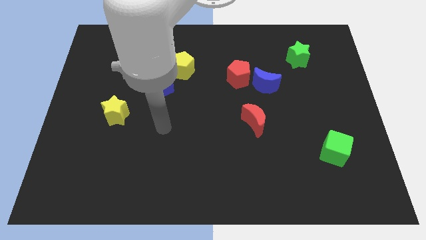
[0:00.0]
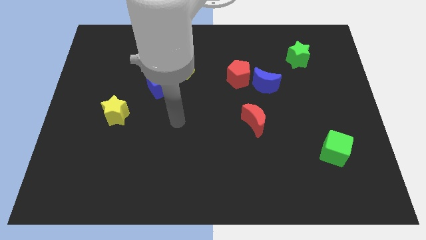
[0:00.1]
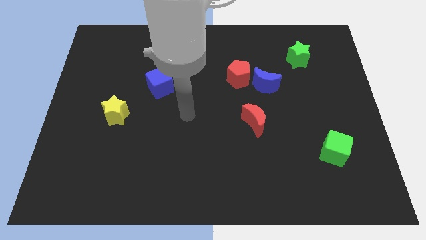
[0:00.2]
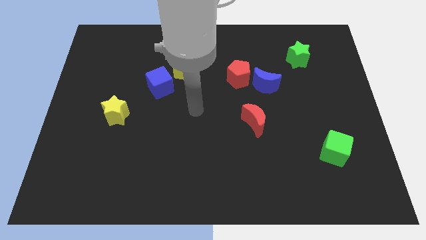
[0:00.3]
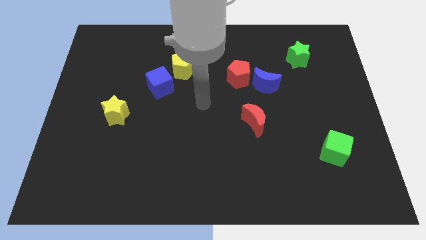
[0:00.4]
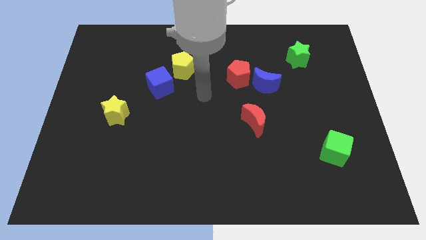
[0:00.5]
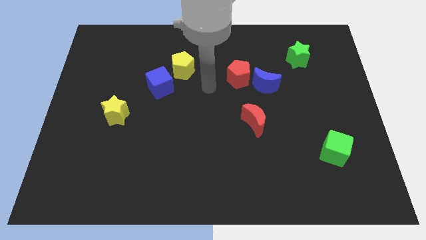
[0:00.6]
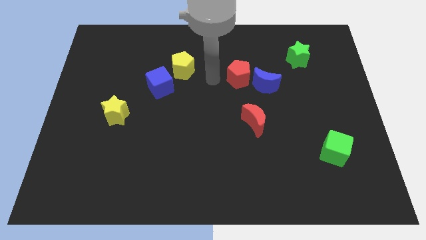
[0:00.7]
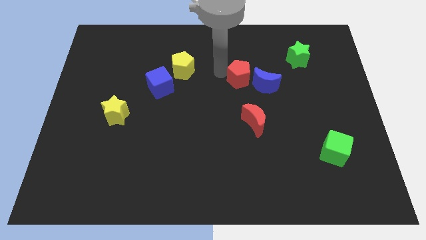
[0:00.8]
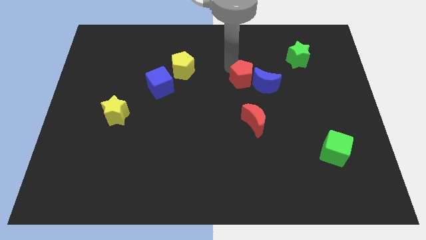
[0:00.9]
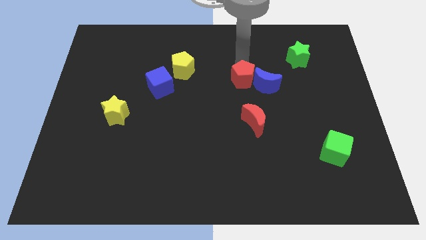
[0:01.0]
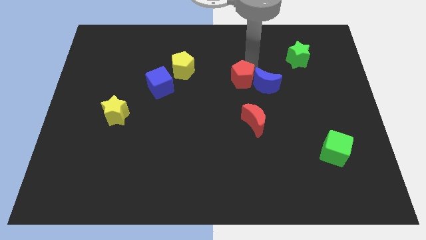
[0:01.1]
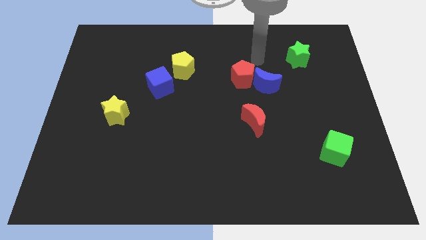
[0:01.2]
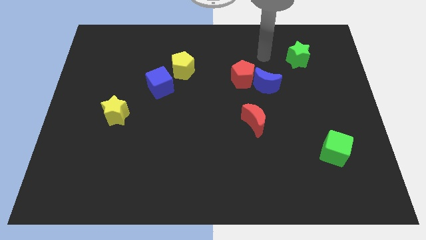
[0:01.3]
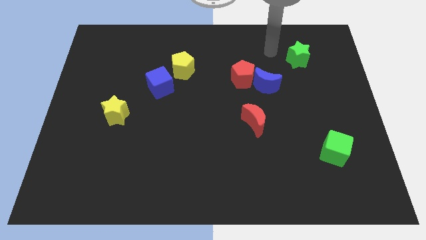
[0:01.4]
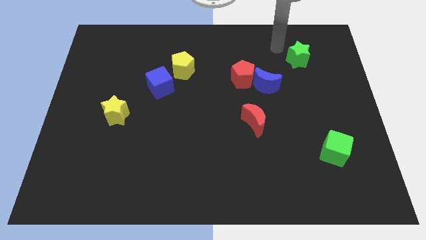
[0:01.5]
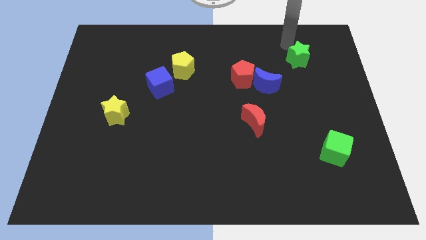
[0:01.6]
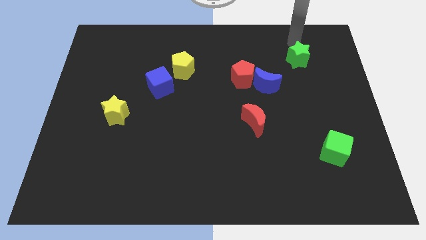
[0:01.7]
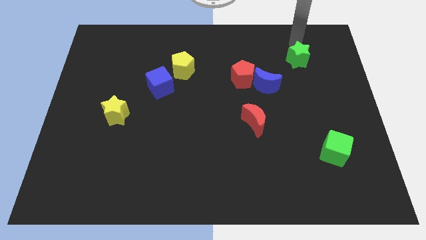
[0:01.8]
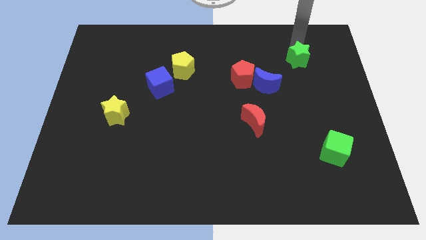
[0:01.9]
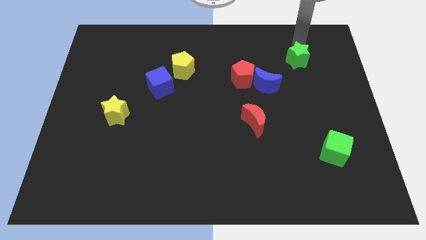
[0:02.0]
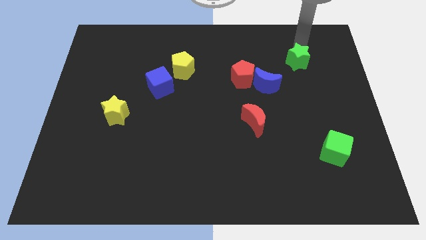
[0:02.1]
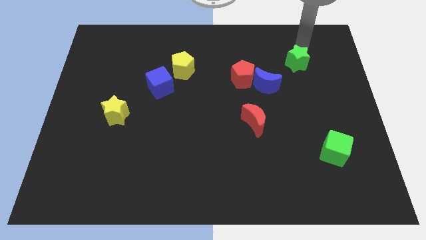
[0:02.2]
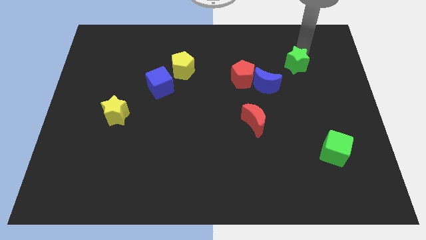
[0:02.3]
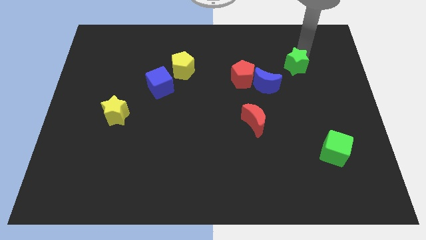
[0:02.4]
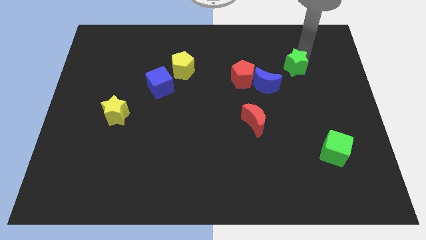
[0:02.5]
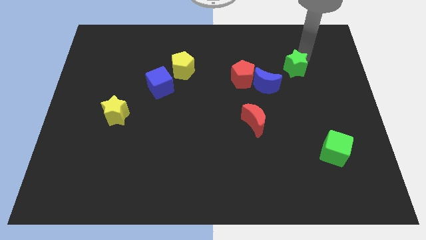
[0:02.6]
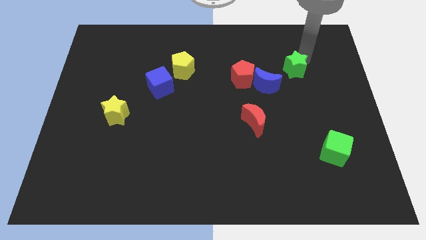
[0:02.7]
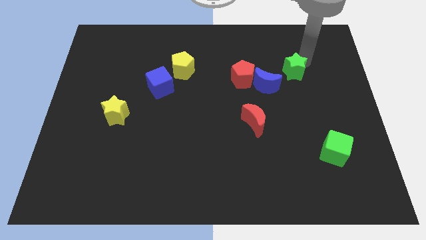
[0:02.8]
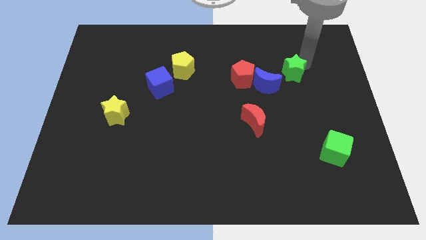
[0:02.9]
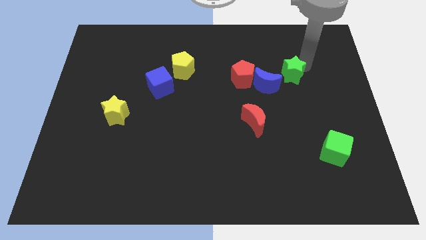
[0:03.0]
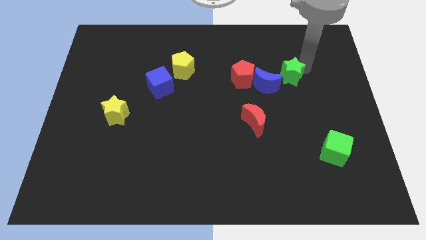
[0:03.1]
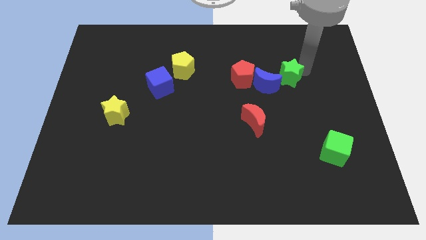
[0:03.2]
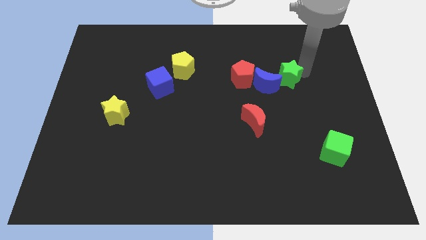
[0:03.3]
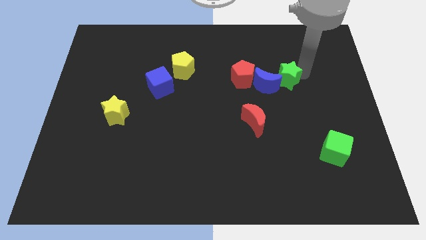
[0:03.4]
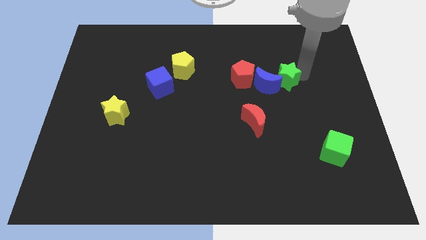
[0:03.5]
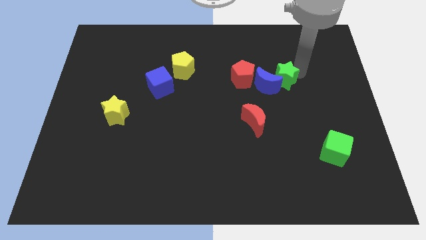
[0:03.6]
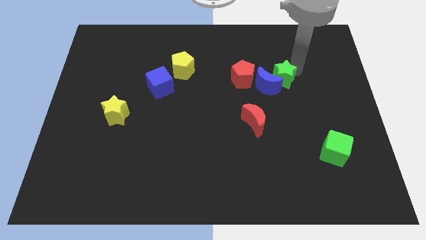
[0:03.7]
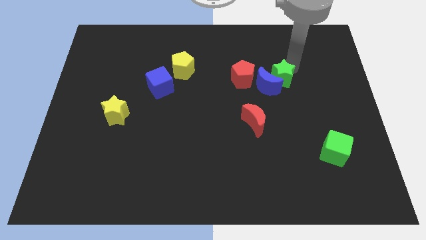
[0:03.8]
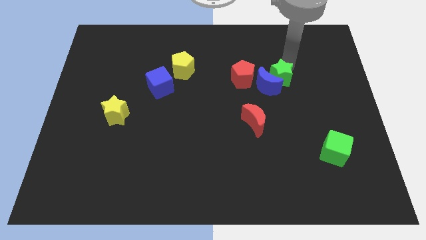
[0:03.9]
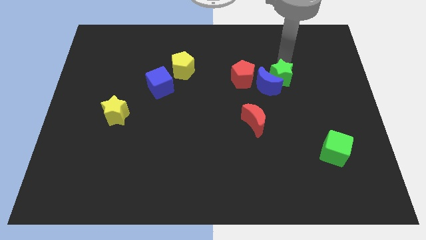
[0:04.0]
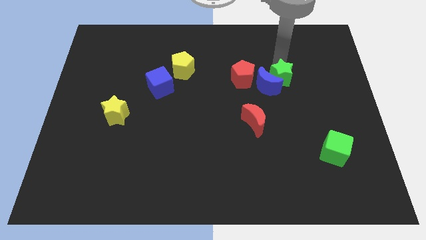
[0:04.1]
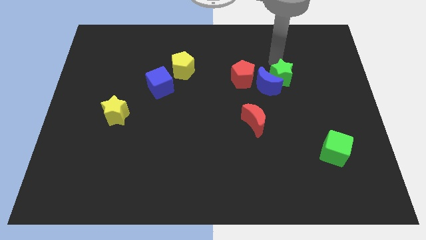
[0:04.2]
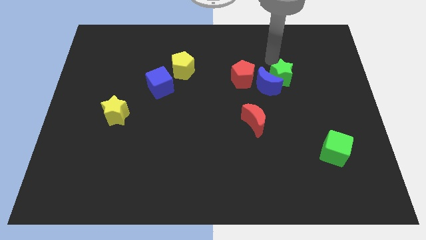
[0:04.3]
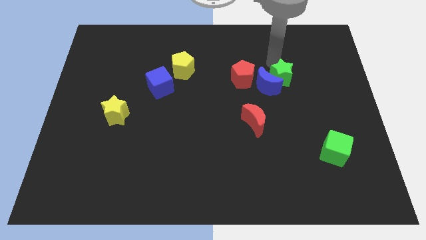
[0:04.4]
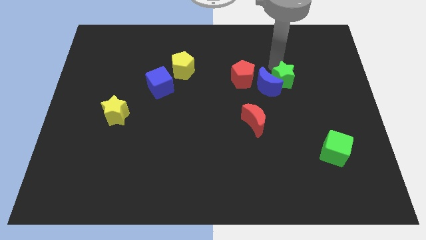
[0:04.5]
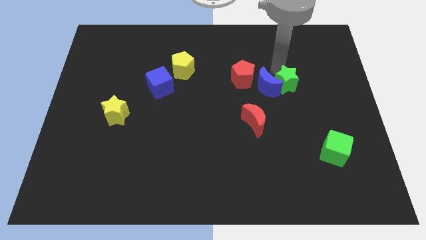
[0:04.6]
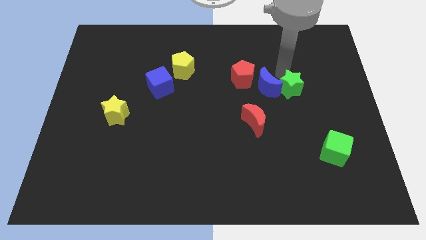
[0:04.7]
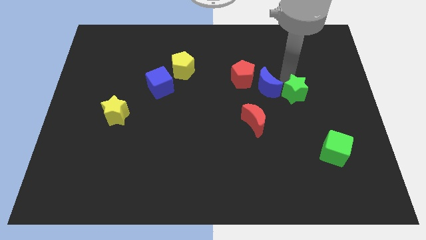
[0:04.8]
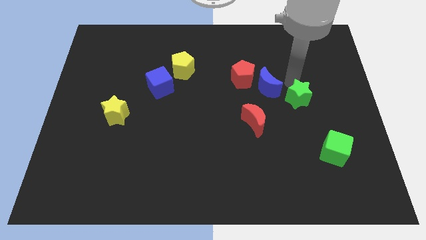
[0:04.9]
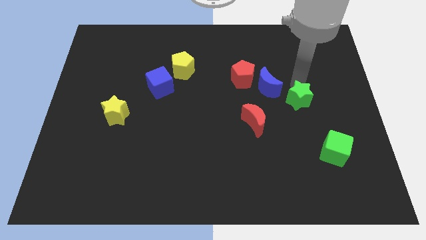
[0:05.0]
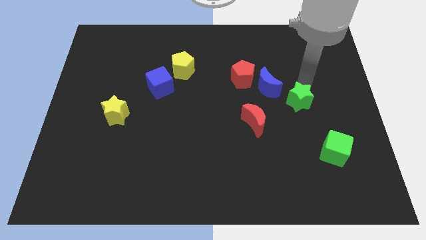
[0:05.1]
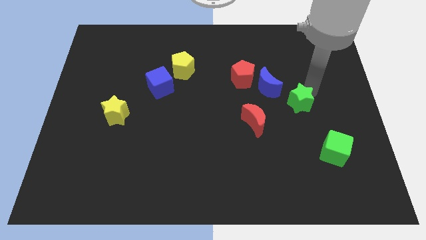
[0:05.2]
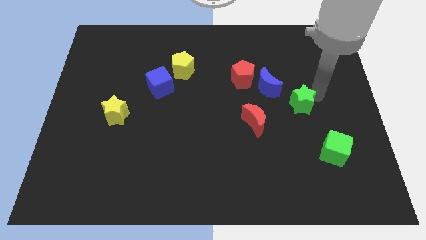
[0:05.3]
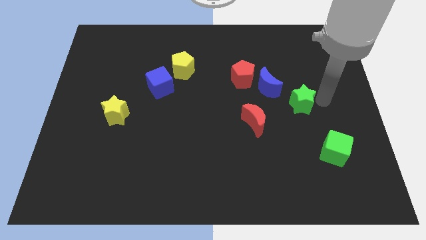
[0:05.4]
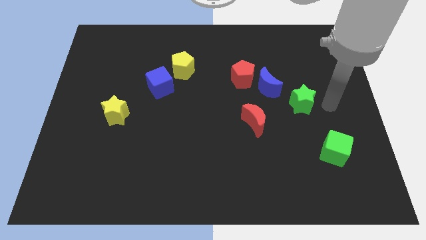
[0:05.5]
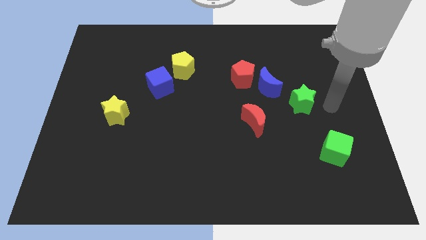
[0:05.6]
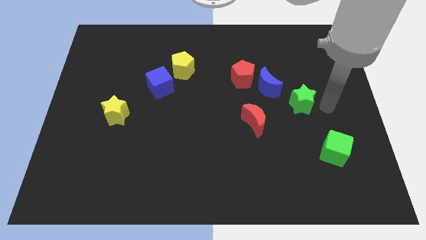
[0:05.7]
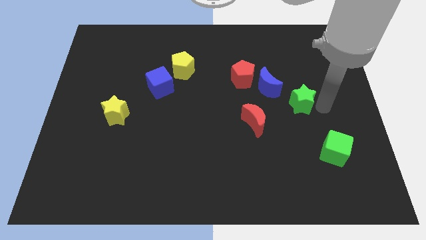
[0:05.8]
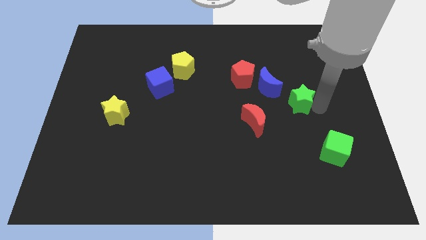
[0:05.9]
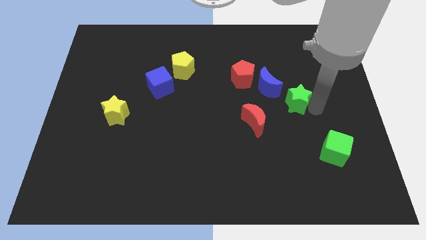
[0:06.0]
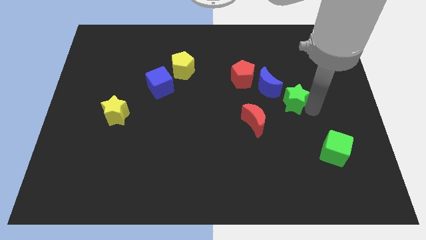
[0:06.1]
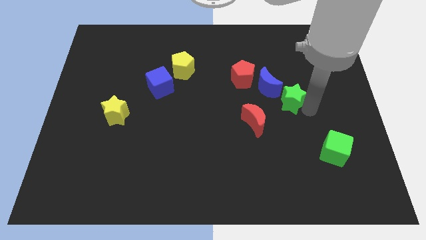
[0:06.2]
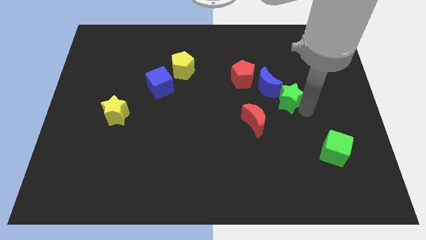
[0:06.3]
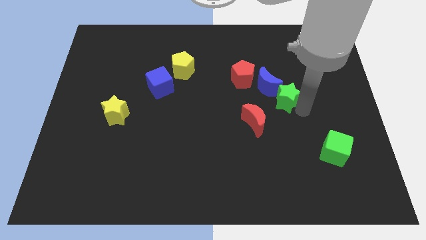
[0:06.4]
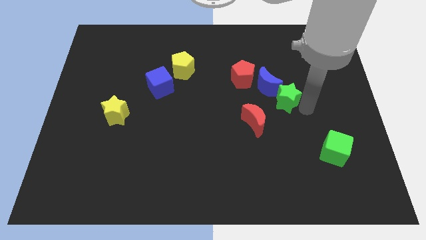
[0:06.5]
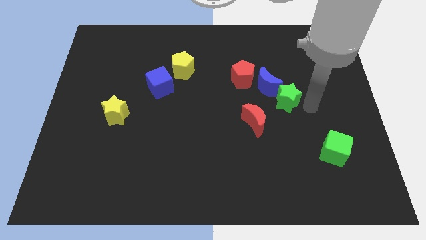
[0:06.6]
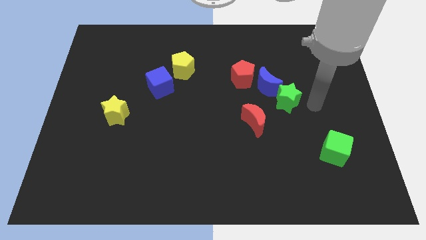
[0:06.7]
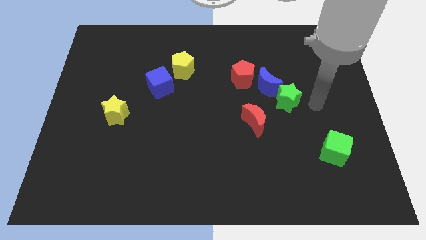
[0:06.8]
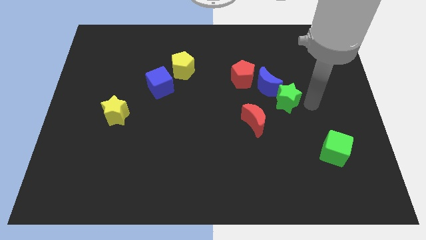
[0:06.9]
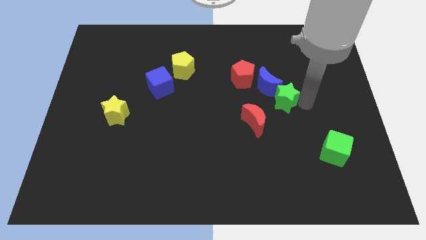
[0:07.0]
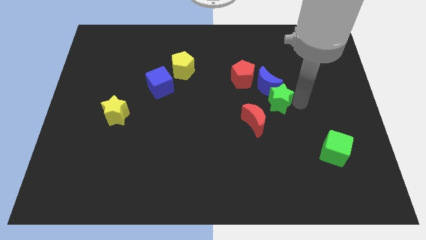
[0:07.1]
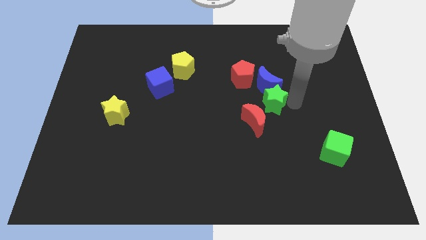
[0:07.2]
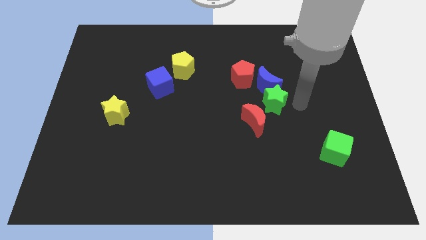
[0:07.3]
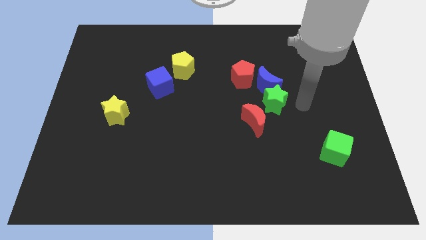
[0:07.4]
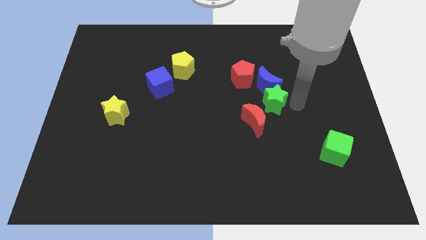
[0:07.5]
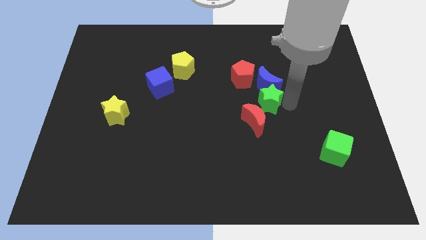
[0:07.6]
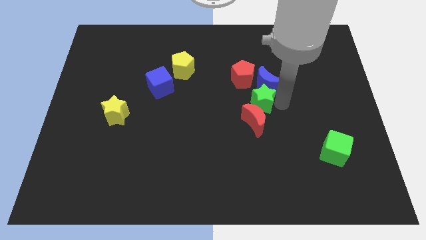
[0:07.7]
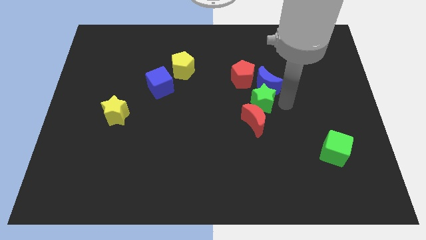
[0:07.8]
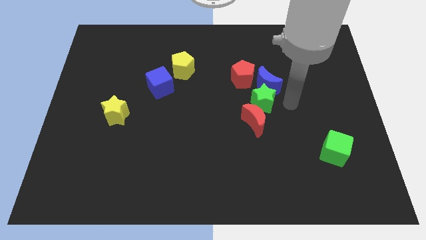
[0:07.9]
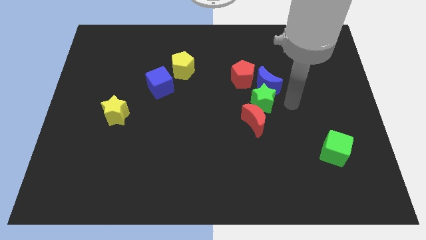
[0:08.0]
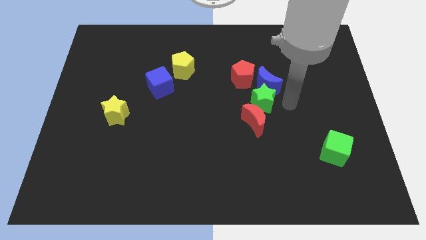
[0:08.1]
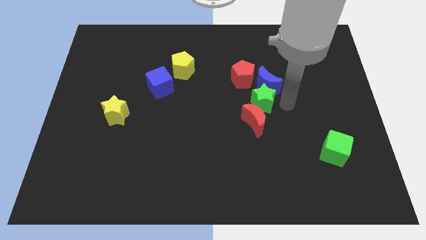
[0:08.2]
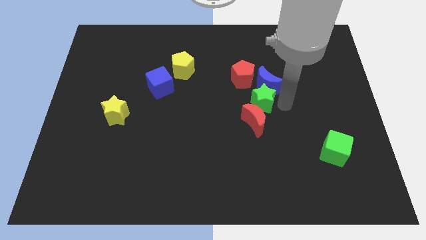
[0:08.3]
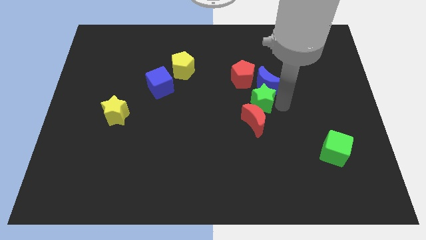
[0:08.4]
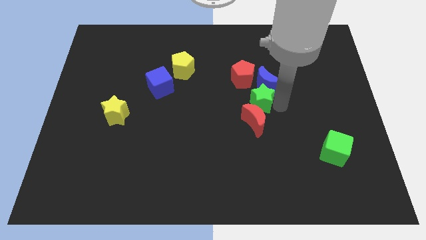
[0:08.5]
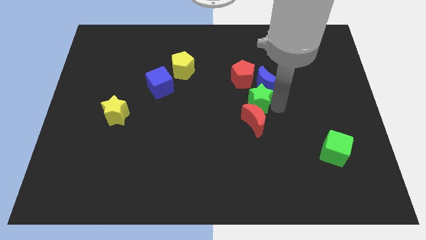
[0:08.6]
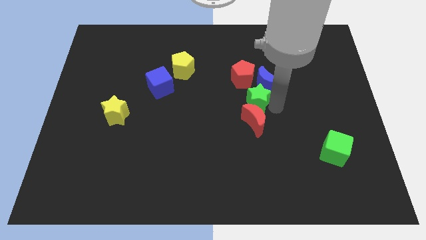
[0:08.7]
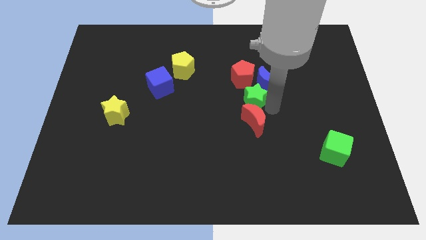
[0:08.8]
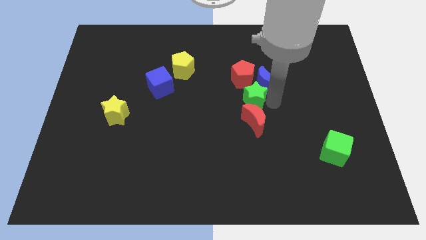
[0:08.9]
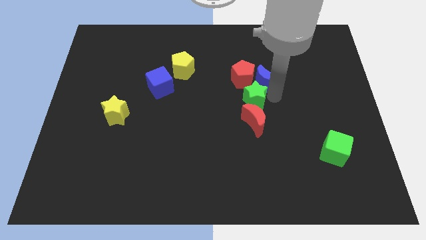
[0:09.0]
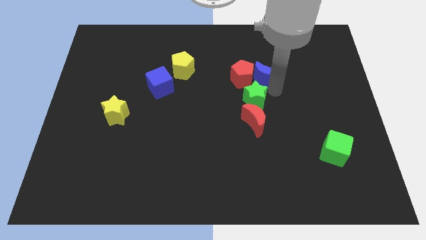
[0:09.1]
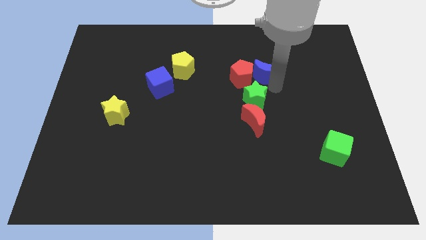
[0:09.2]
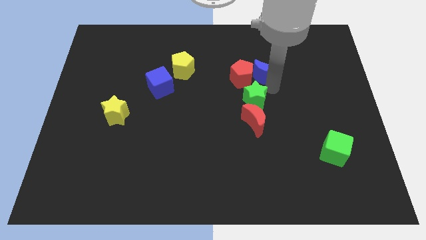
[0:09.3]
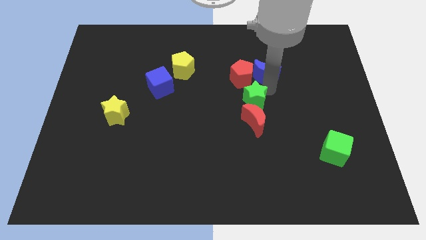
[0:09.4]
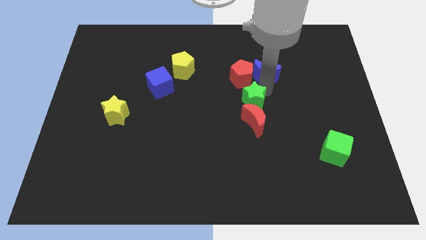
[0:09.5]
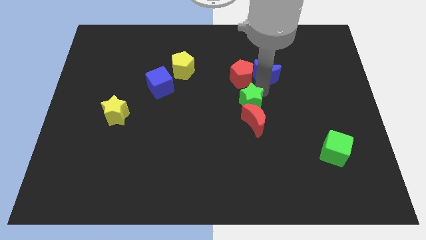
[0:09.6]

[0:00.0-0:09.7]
slide the green star diagonally down and to the left
